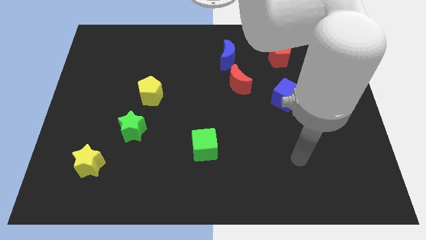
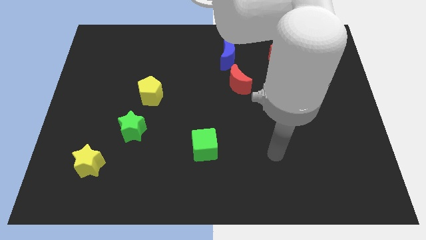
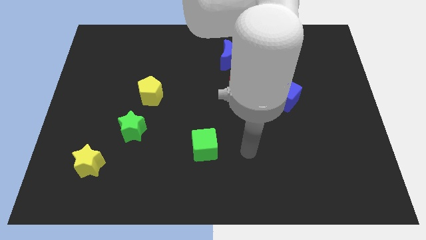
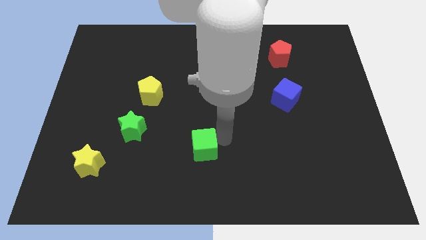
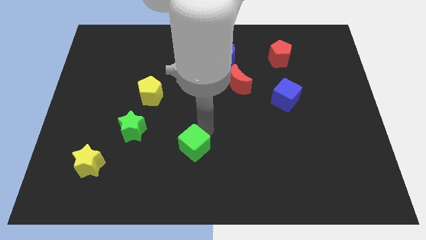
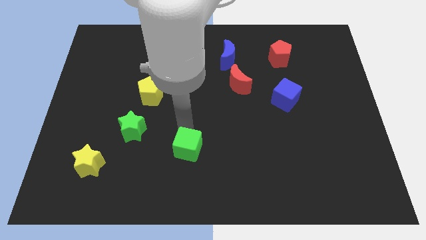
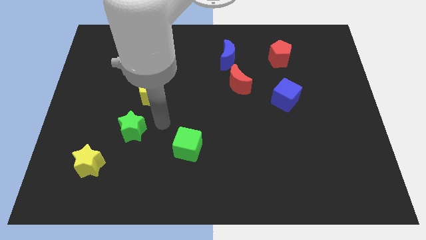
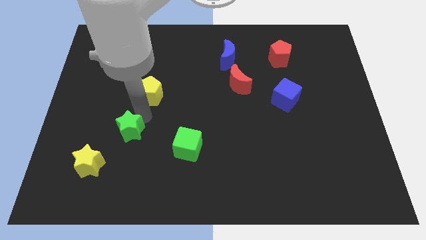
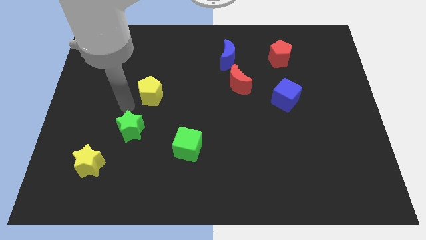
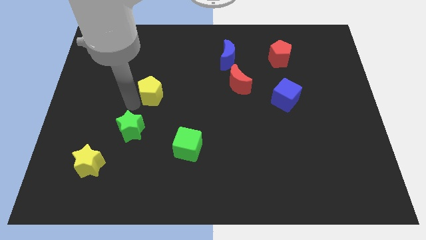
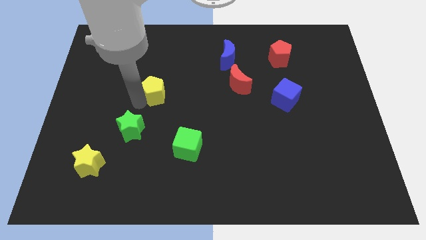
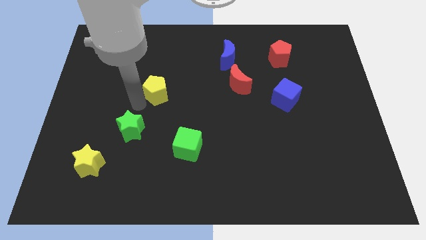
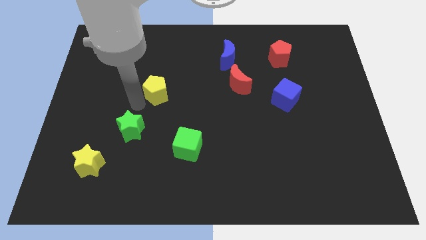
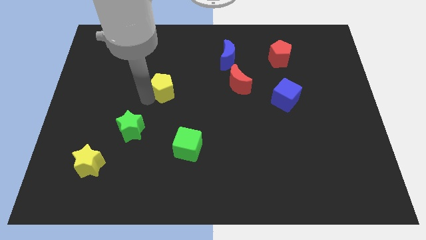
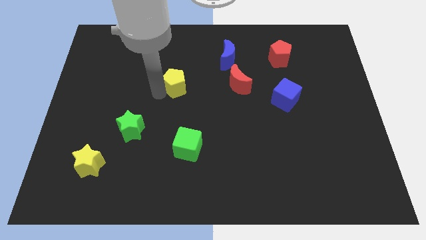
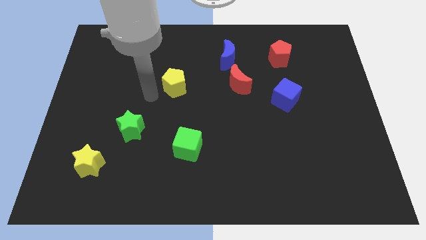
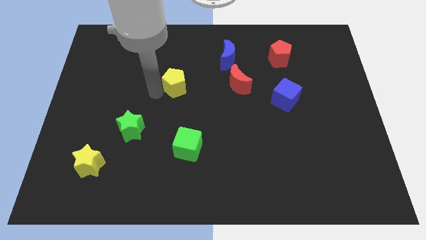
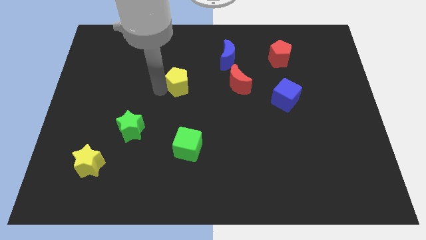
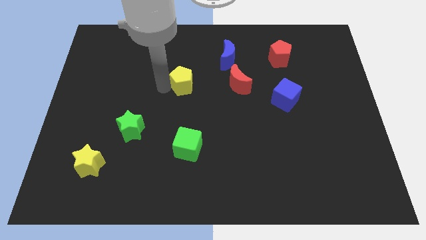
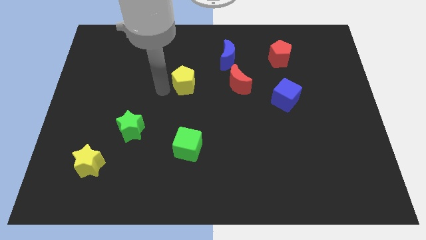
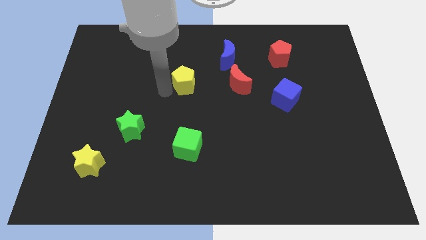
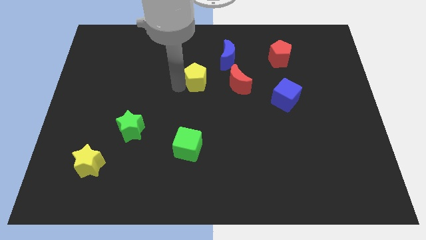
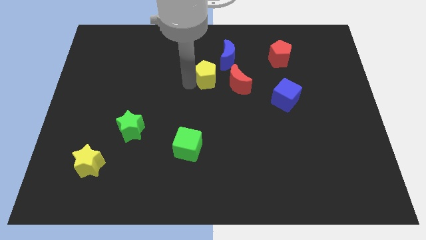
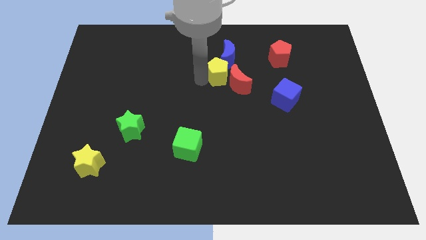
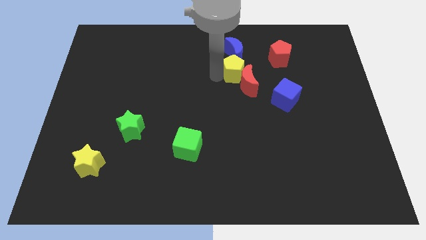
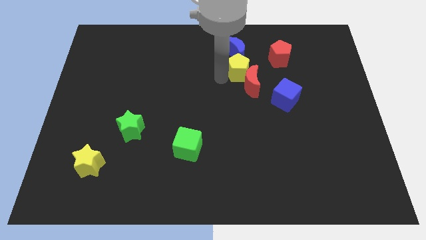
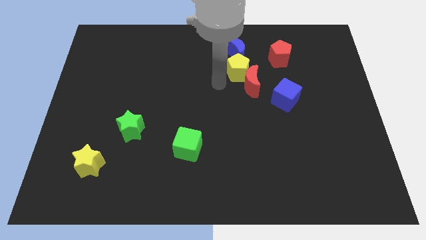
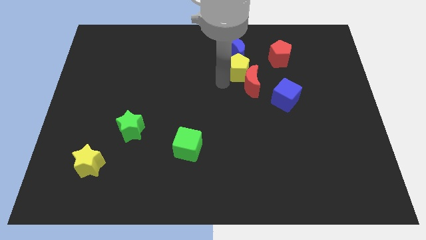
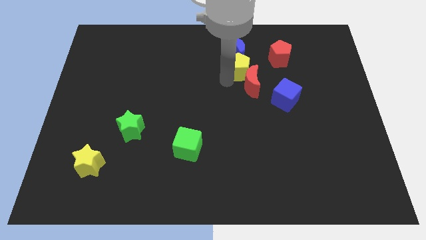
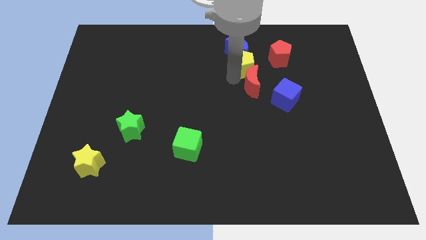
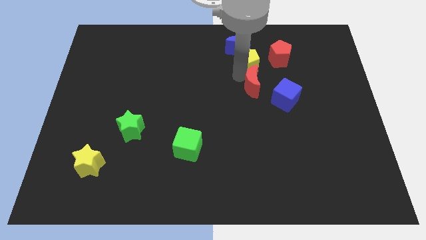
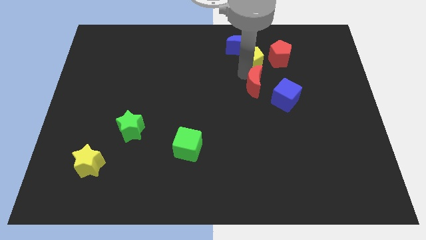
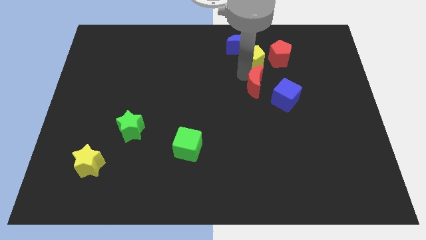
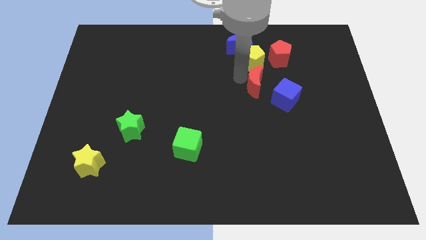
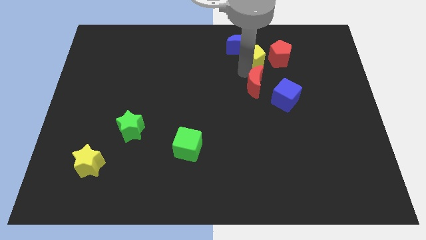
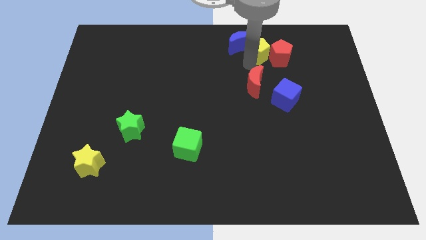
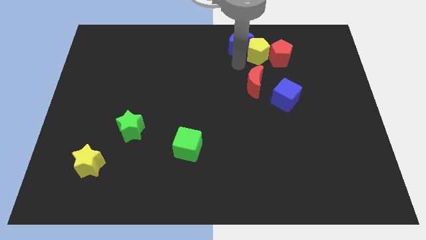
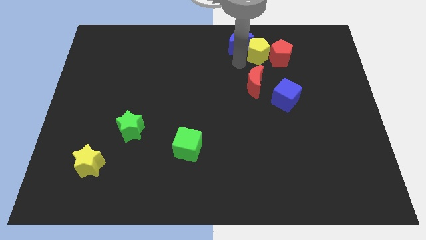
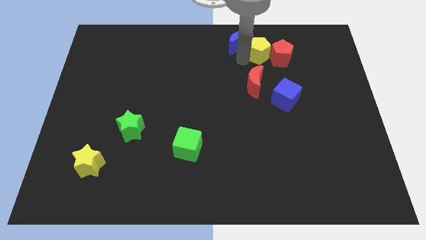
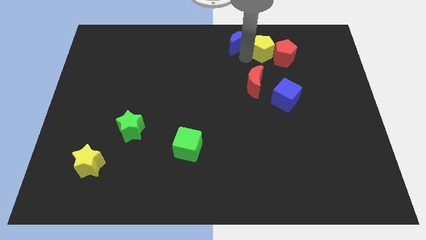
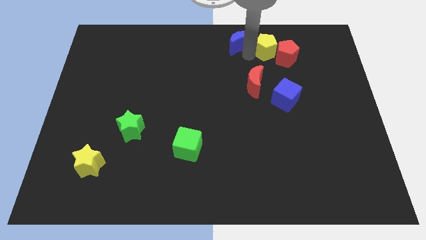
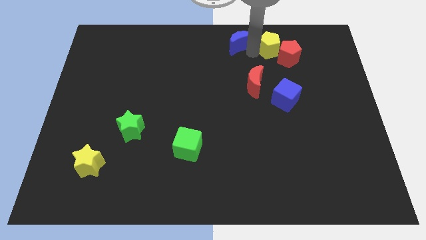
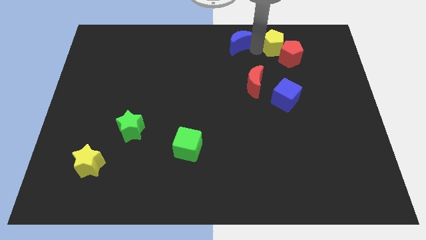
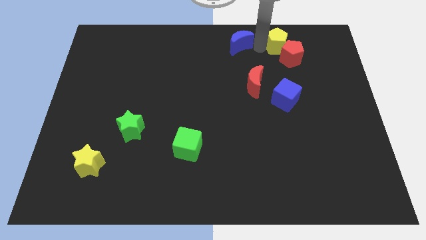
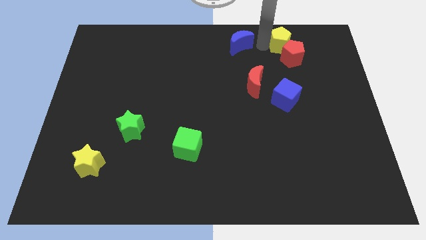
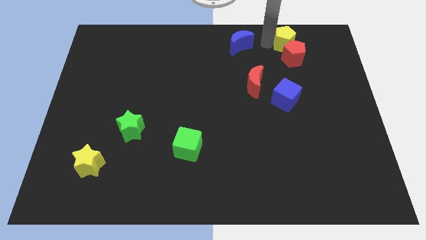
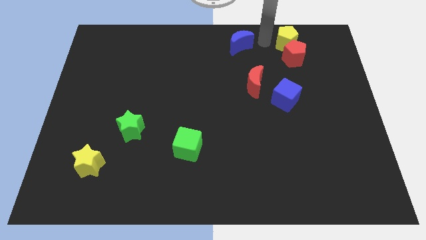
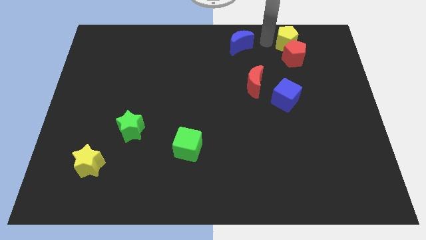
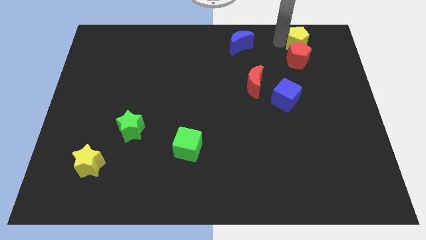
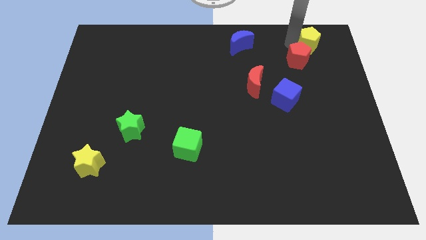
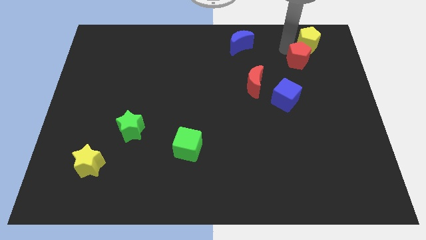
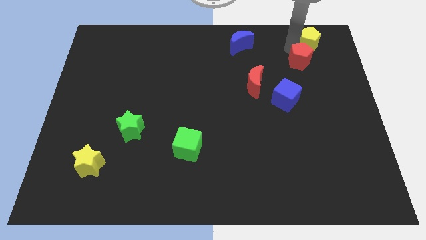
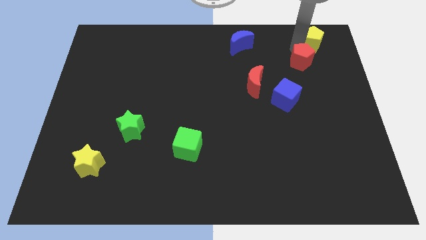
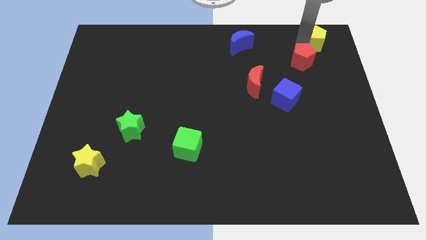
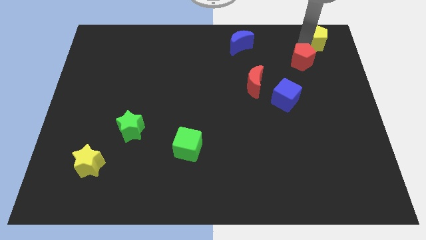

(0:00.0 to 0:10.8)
slide the yellow pentagon to the top right corner

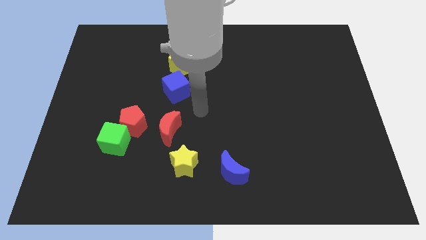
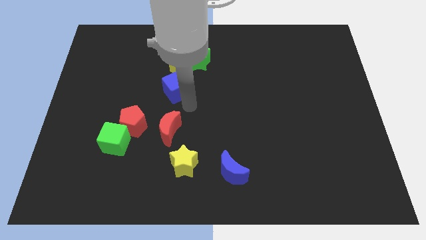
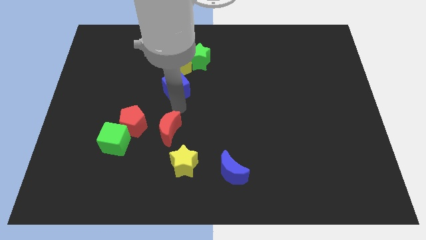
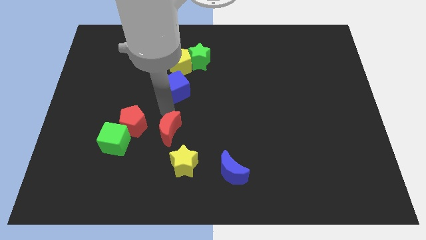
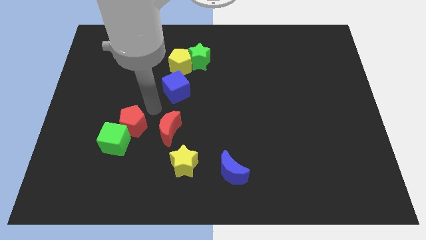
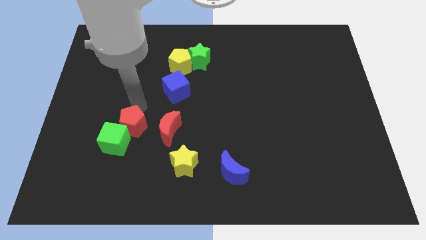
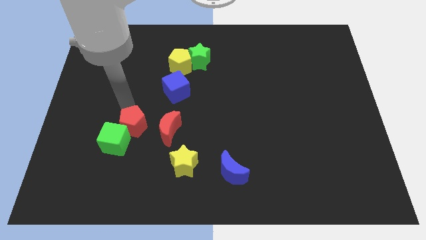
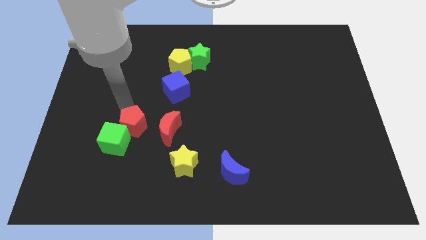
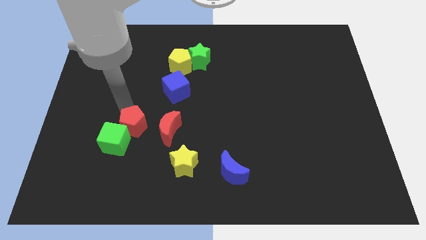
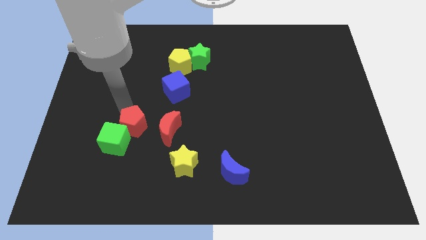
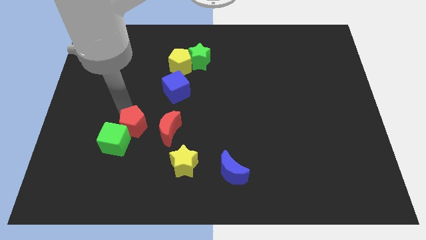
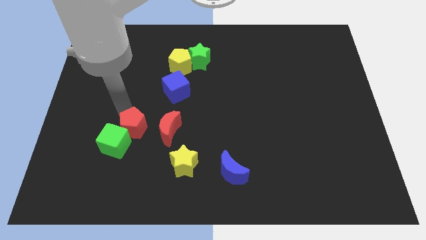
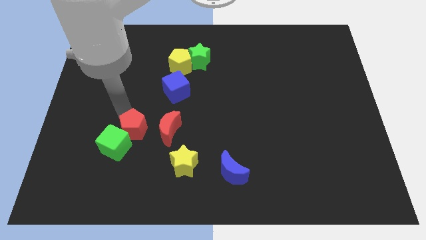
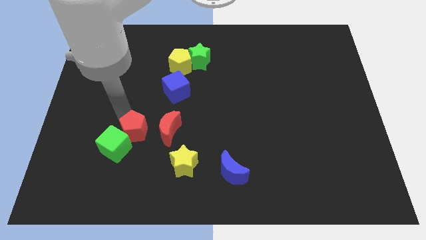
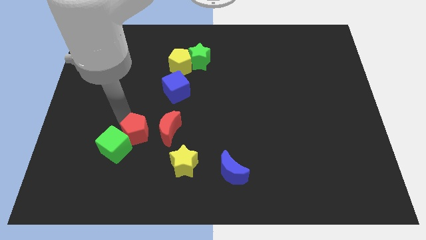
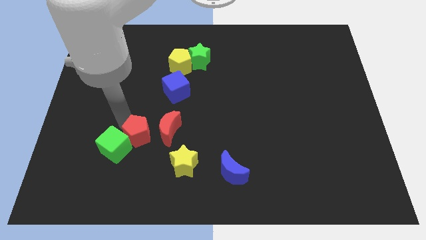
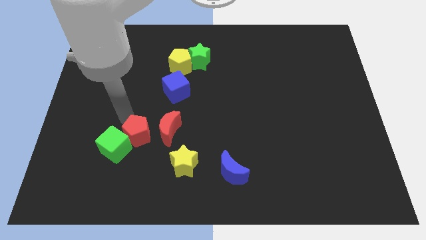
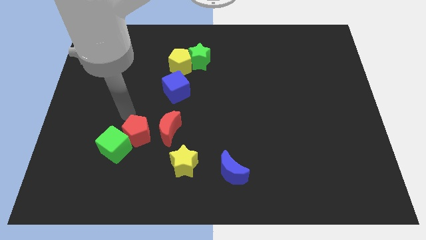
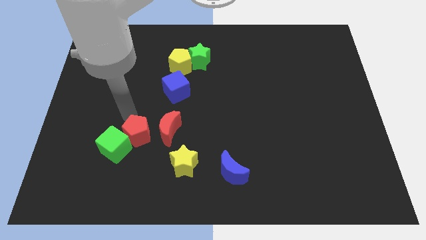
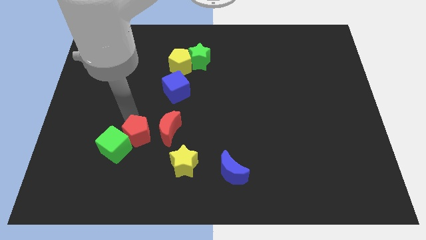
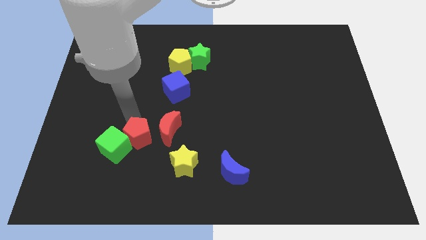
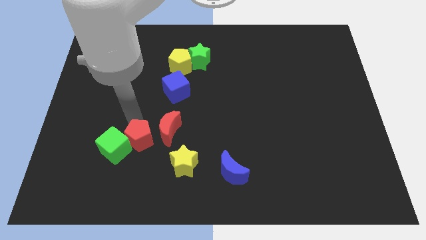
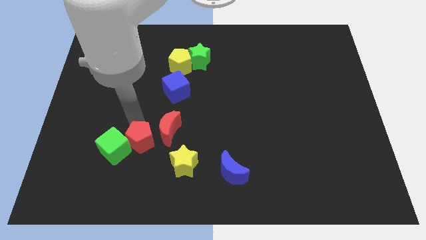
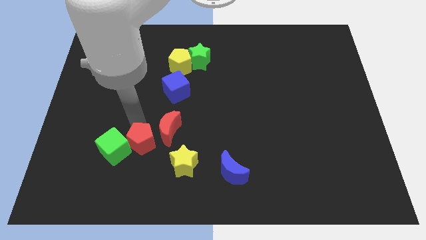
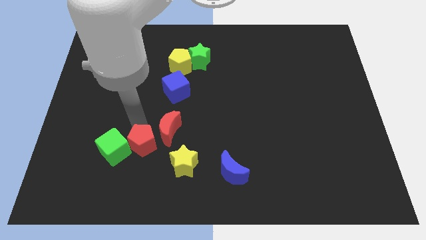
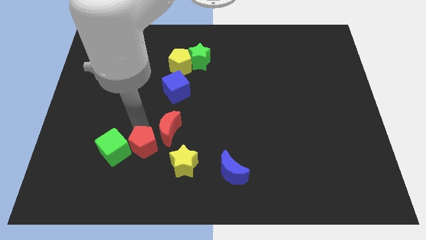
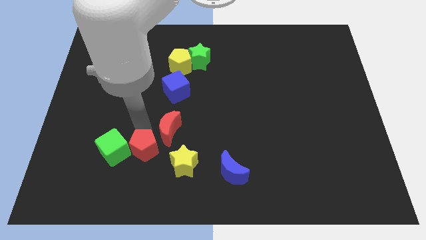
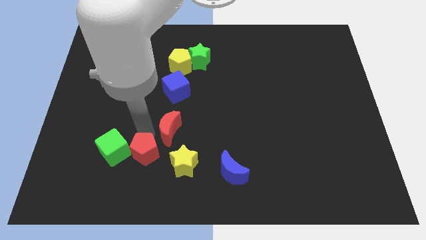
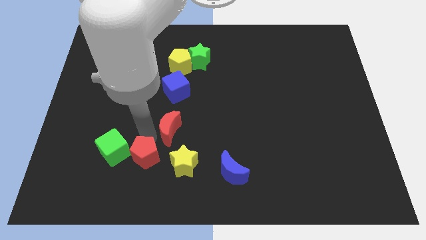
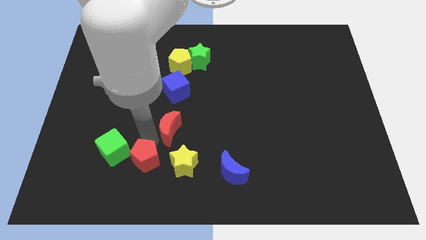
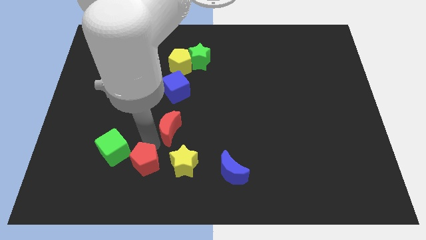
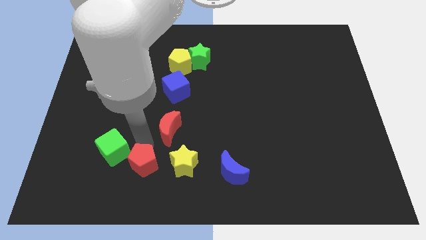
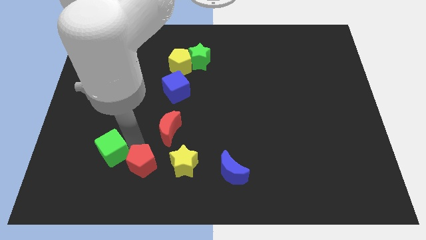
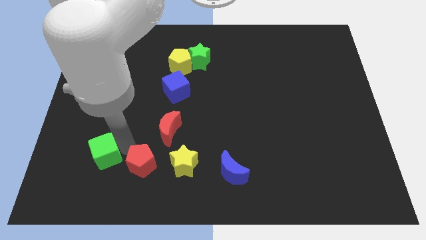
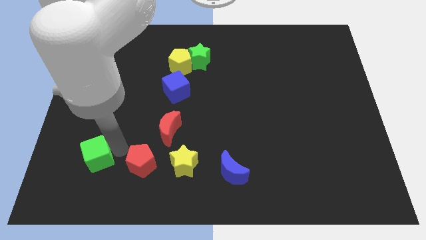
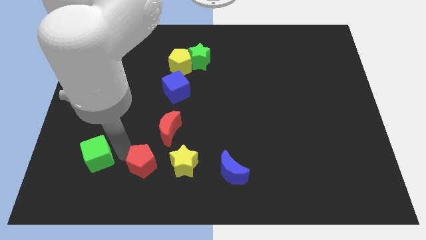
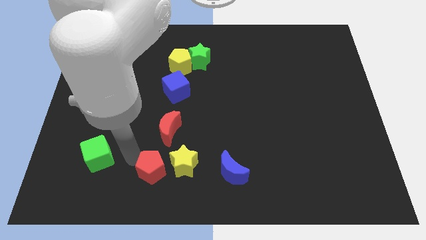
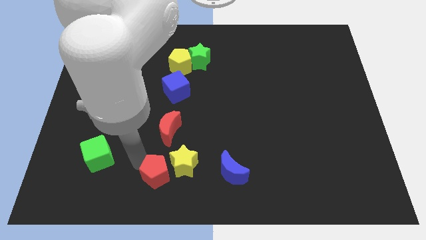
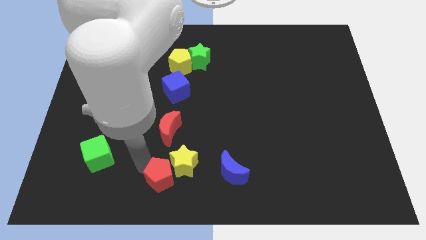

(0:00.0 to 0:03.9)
slide the red pentagon to the bottom side
